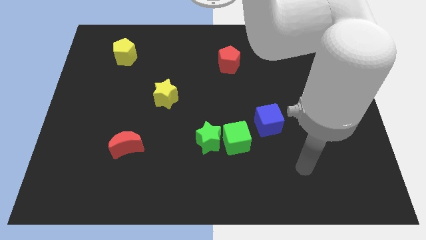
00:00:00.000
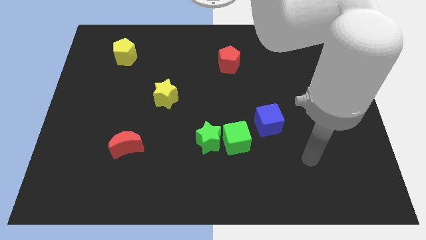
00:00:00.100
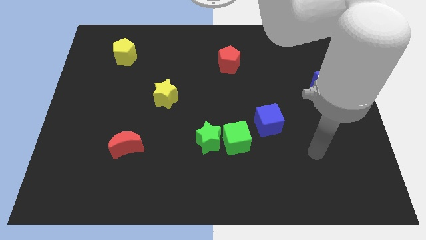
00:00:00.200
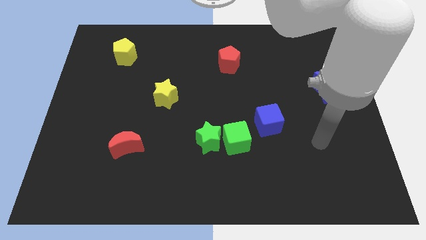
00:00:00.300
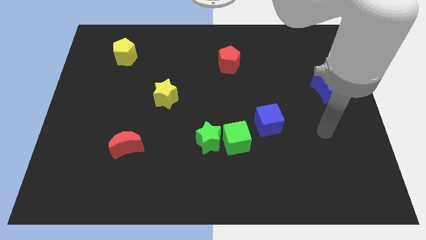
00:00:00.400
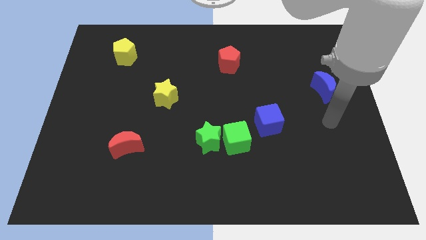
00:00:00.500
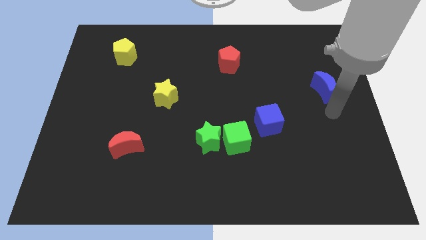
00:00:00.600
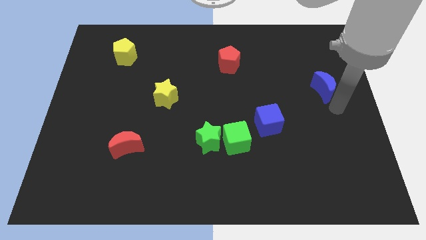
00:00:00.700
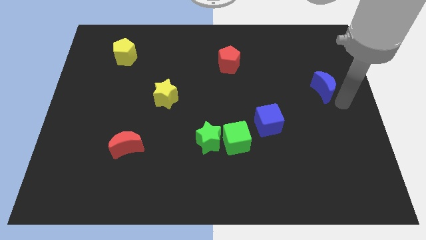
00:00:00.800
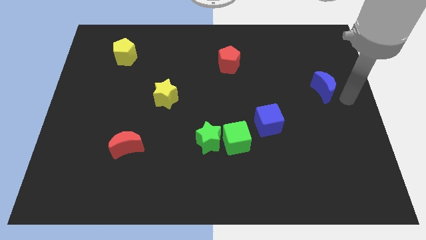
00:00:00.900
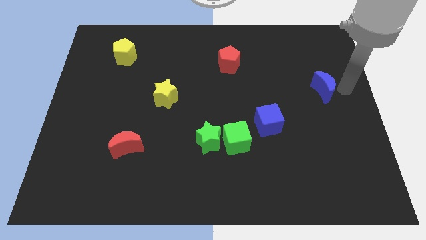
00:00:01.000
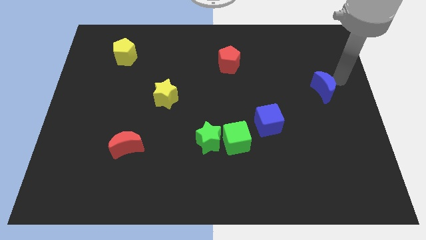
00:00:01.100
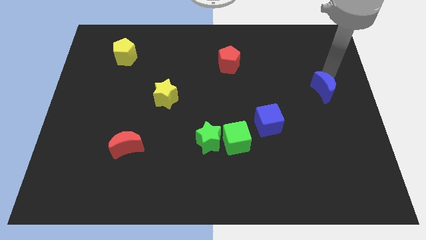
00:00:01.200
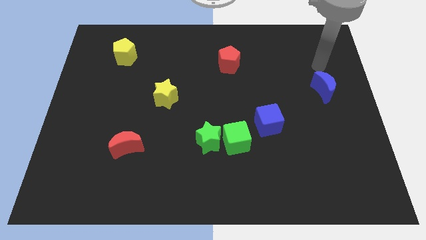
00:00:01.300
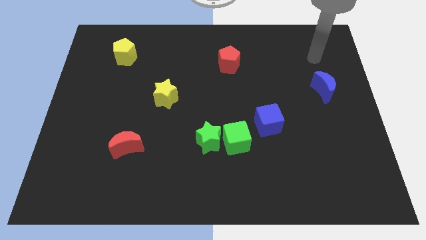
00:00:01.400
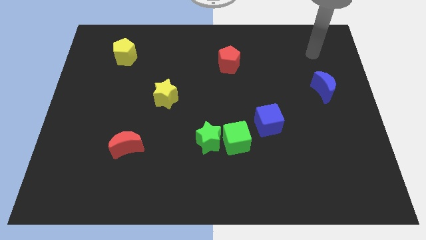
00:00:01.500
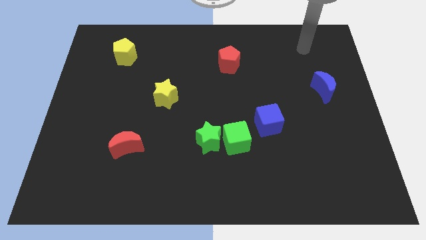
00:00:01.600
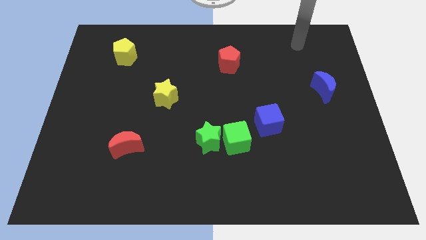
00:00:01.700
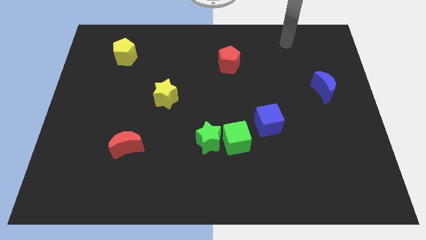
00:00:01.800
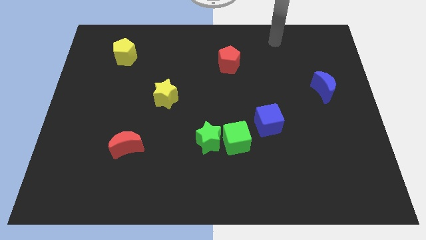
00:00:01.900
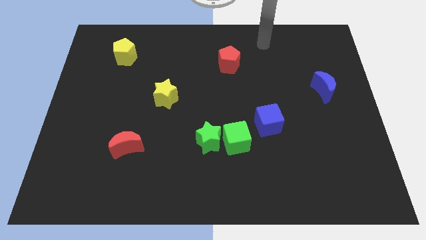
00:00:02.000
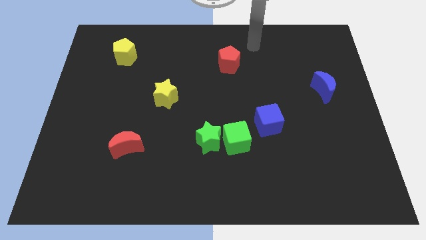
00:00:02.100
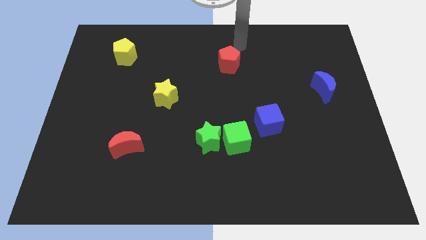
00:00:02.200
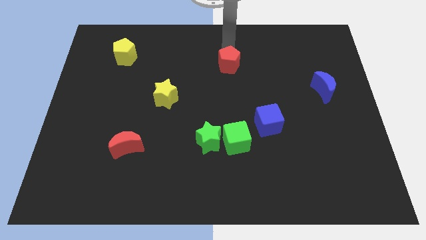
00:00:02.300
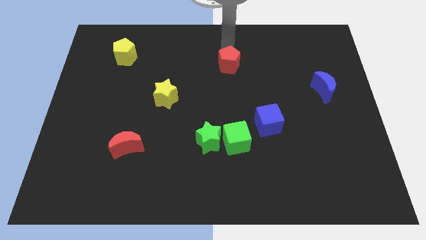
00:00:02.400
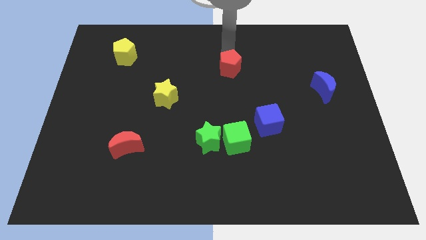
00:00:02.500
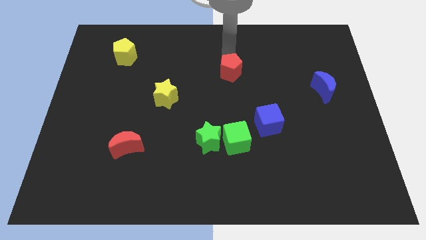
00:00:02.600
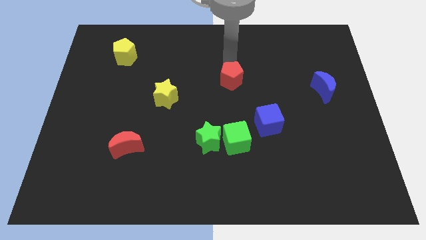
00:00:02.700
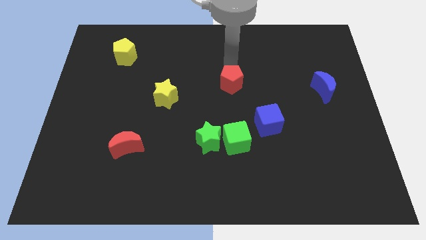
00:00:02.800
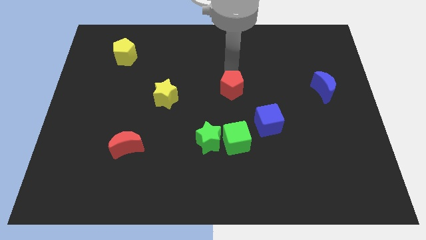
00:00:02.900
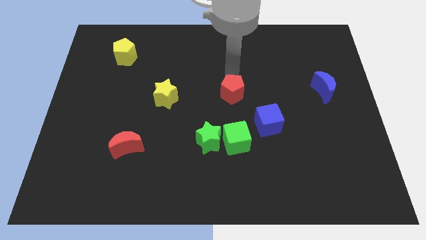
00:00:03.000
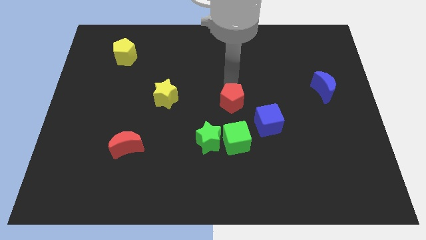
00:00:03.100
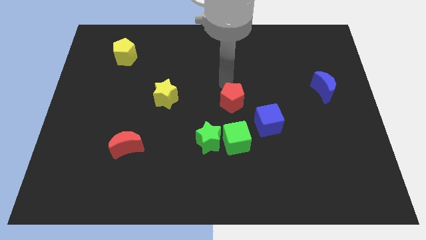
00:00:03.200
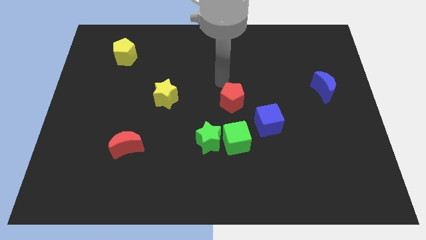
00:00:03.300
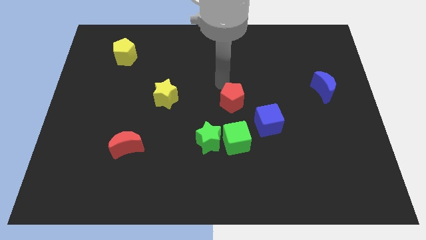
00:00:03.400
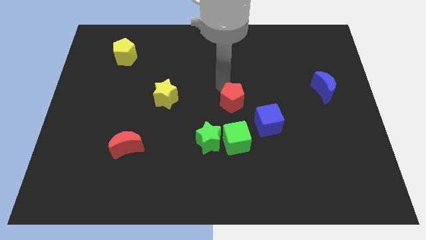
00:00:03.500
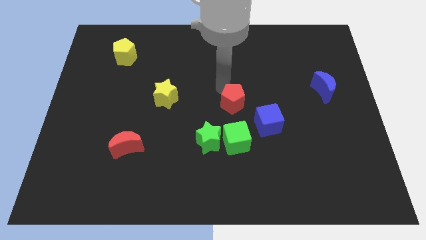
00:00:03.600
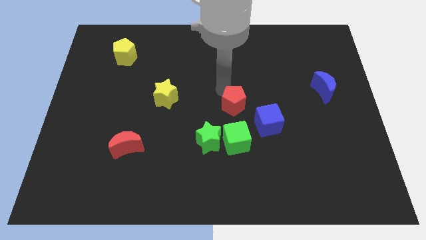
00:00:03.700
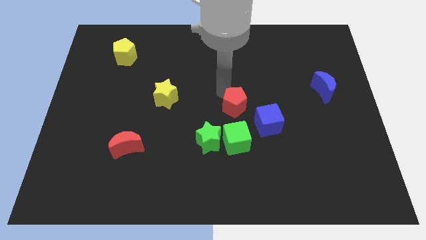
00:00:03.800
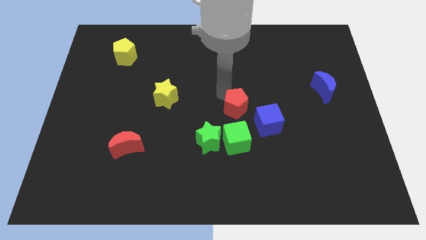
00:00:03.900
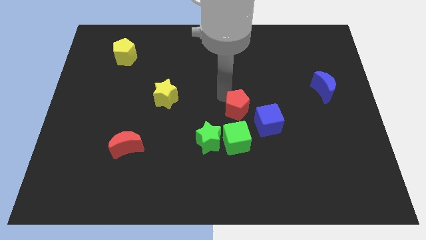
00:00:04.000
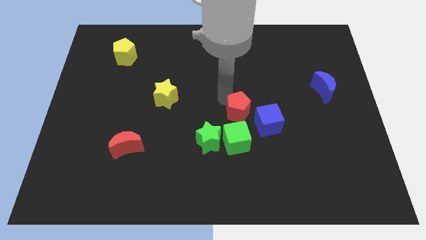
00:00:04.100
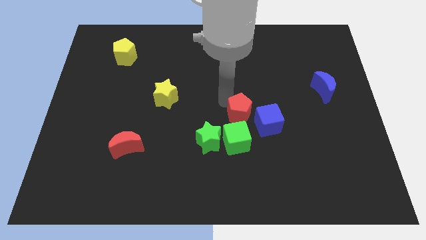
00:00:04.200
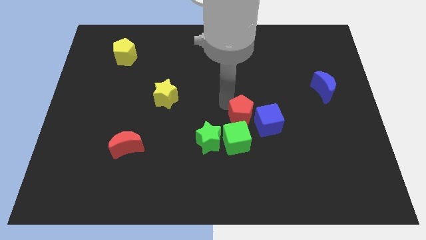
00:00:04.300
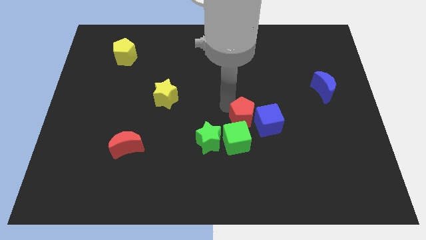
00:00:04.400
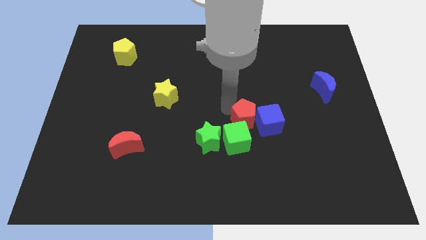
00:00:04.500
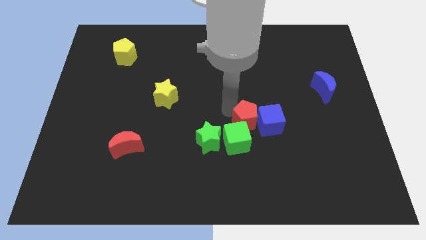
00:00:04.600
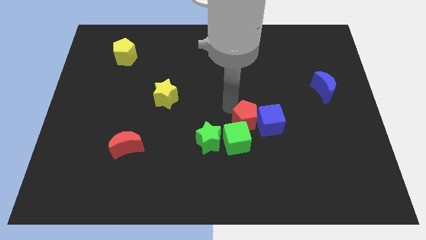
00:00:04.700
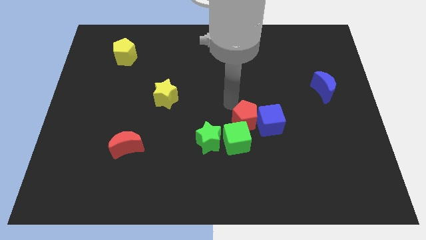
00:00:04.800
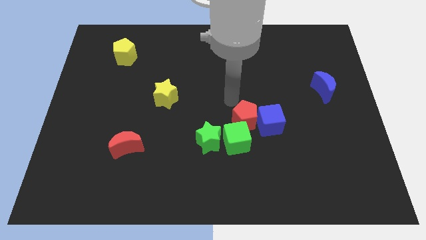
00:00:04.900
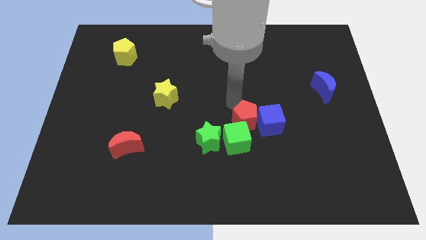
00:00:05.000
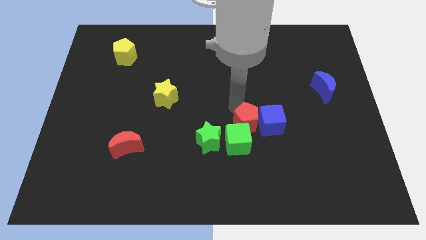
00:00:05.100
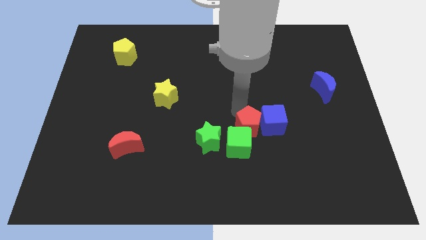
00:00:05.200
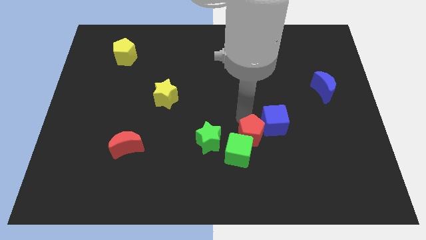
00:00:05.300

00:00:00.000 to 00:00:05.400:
push the red pentagon downwards

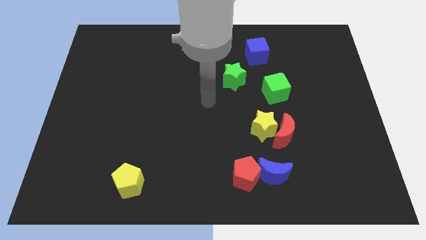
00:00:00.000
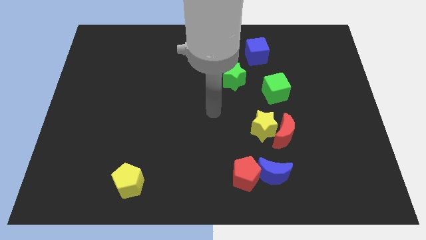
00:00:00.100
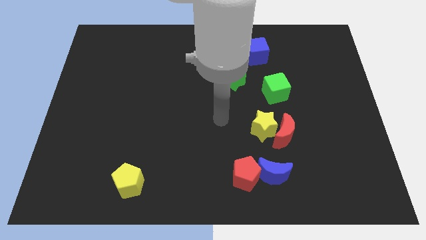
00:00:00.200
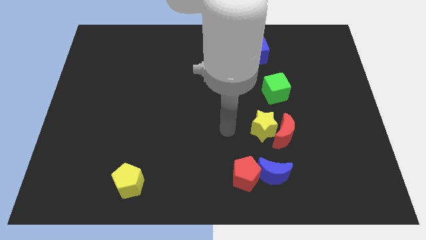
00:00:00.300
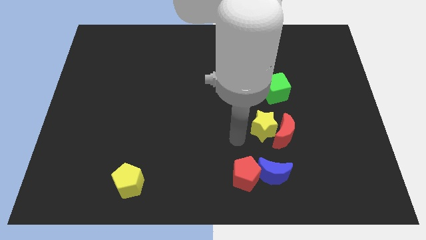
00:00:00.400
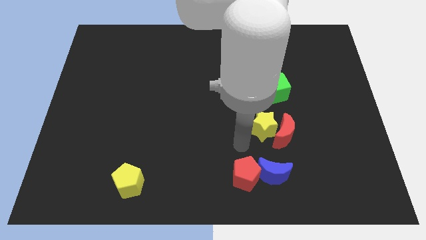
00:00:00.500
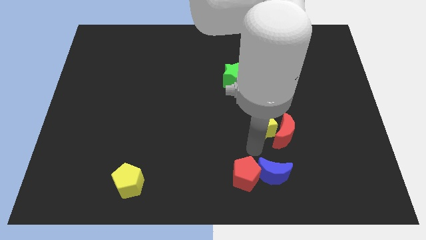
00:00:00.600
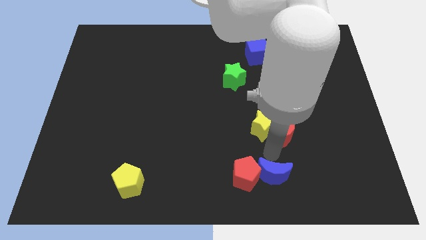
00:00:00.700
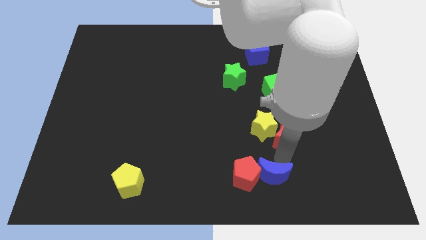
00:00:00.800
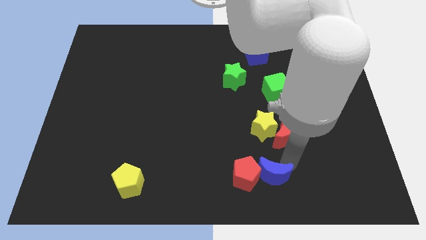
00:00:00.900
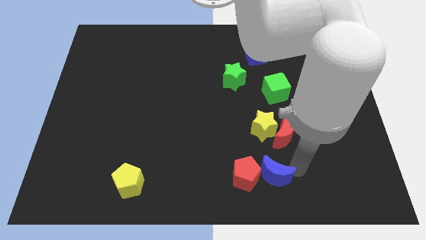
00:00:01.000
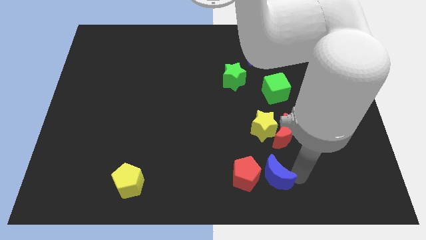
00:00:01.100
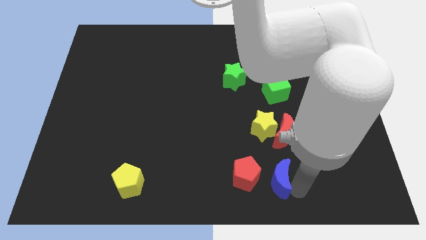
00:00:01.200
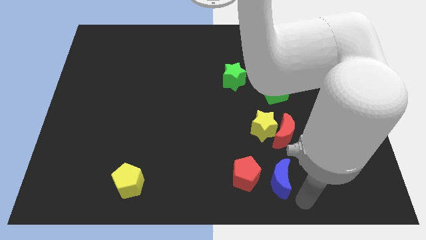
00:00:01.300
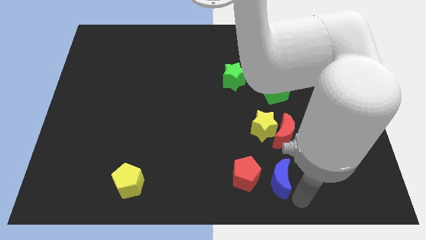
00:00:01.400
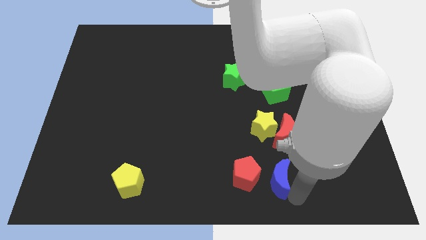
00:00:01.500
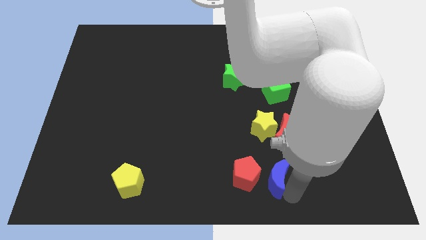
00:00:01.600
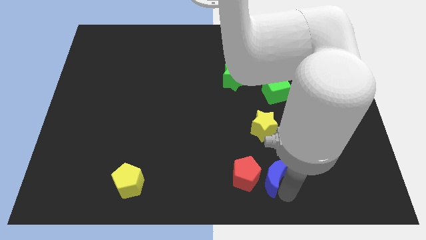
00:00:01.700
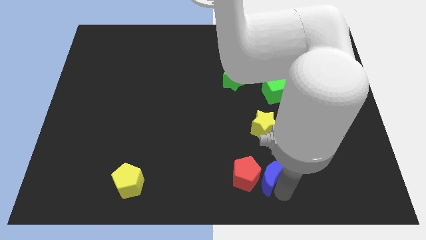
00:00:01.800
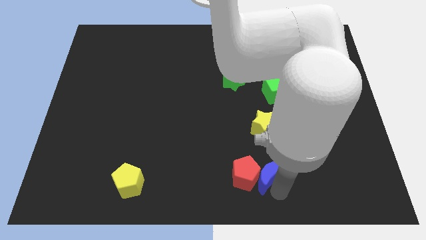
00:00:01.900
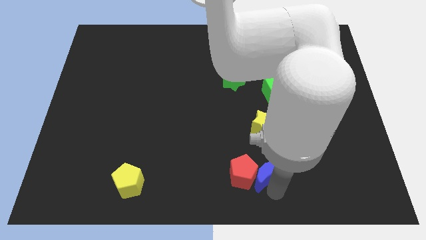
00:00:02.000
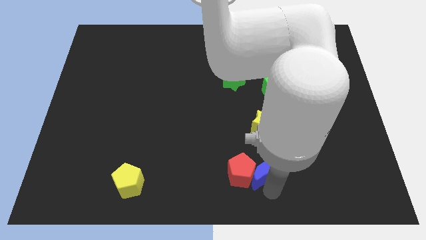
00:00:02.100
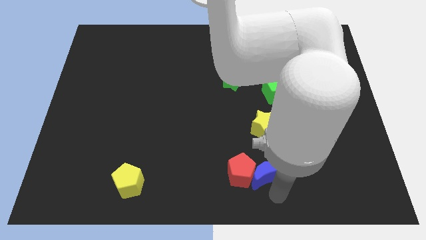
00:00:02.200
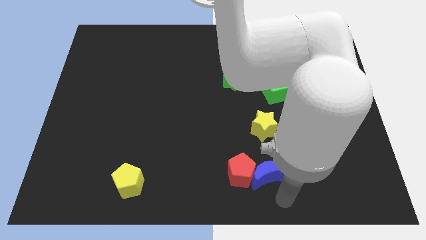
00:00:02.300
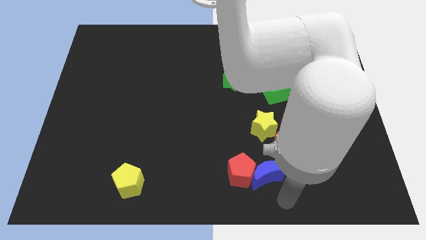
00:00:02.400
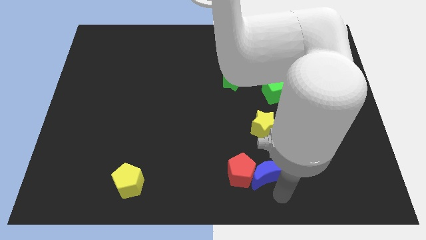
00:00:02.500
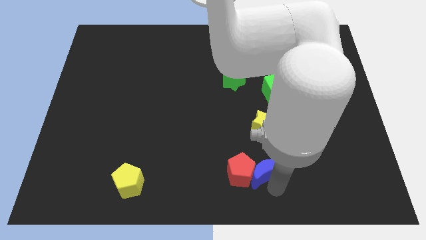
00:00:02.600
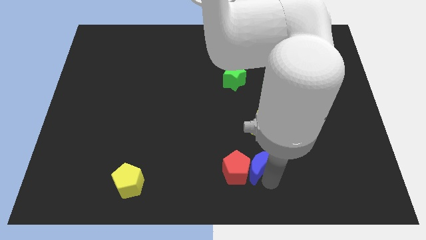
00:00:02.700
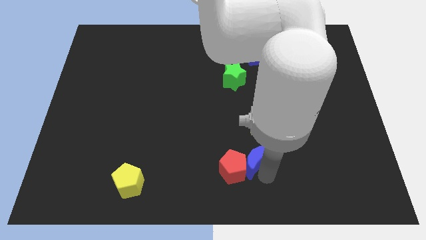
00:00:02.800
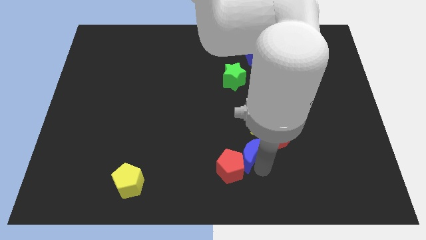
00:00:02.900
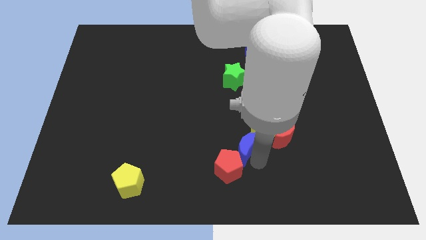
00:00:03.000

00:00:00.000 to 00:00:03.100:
slide the blue moon up and left slightly
